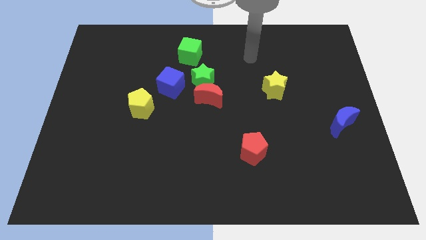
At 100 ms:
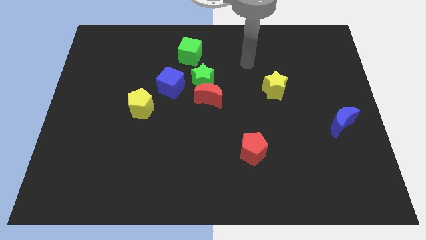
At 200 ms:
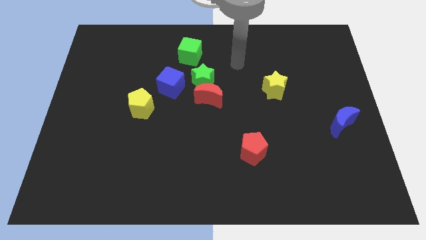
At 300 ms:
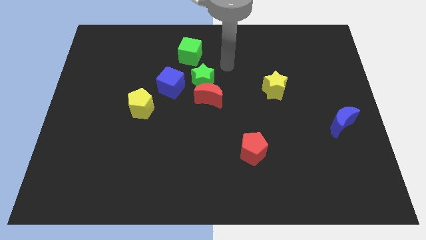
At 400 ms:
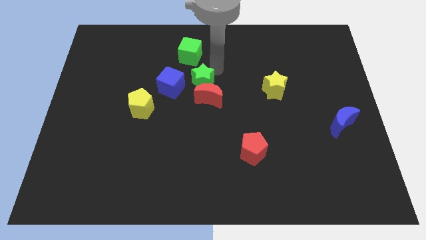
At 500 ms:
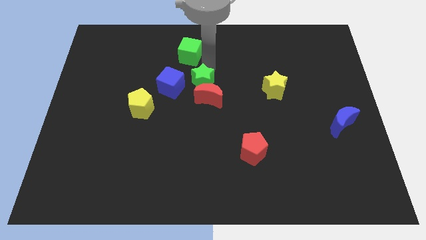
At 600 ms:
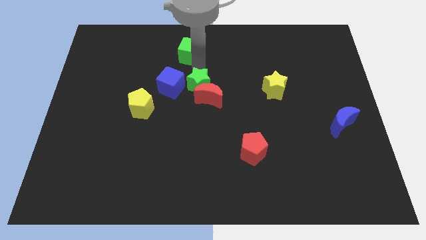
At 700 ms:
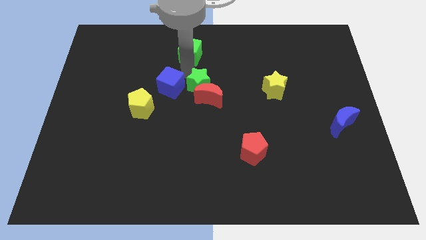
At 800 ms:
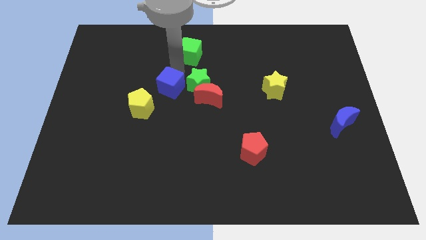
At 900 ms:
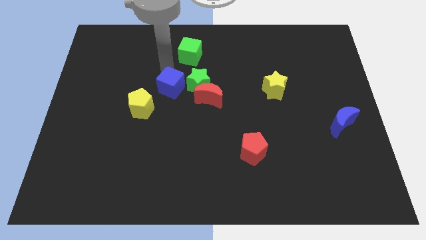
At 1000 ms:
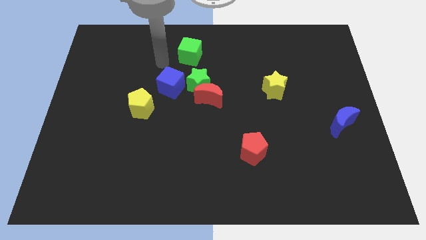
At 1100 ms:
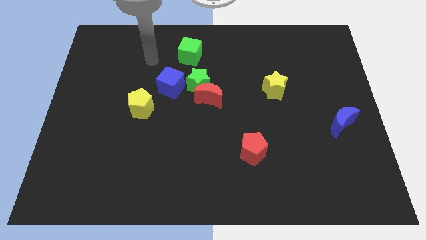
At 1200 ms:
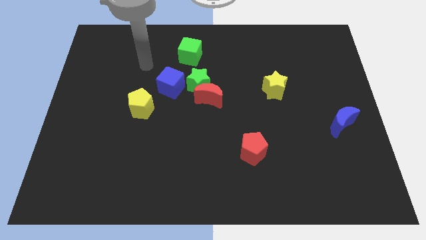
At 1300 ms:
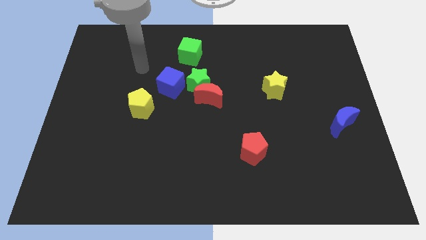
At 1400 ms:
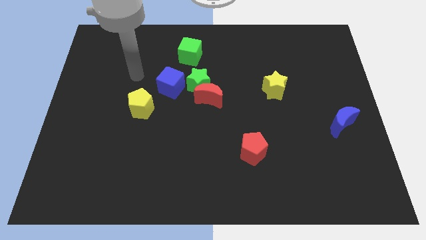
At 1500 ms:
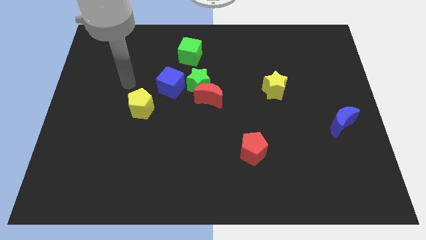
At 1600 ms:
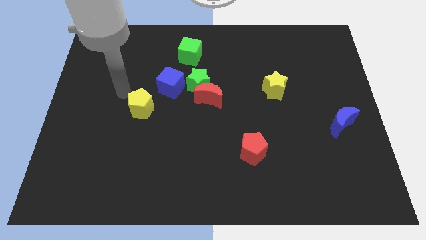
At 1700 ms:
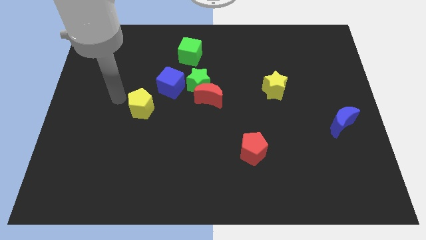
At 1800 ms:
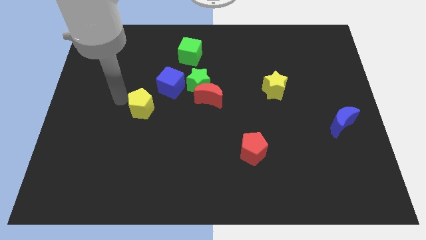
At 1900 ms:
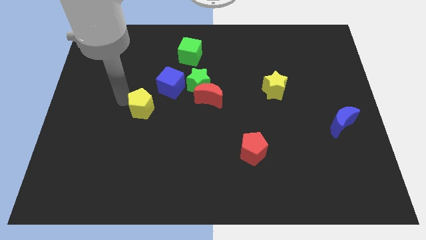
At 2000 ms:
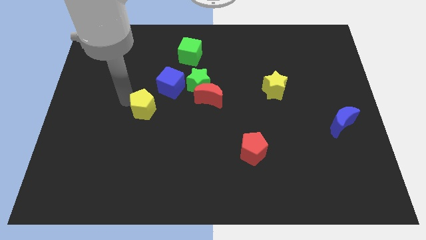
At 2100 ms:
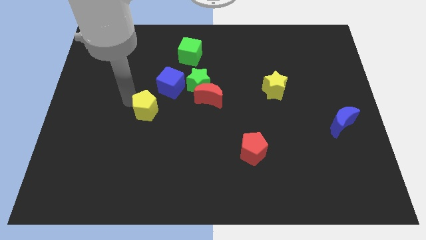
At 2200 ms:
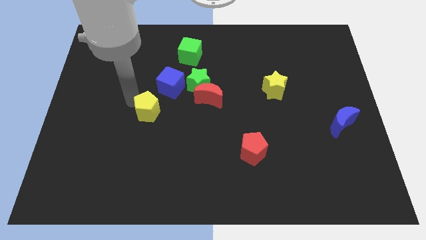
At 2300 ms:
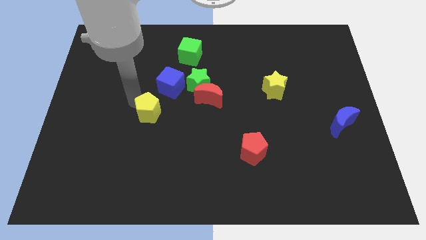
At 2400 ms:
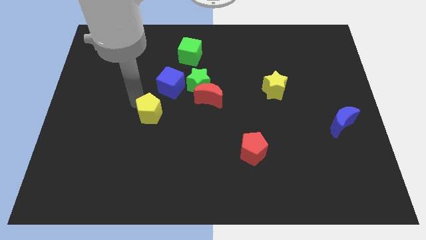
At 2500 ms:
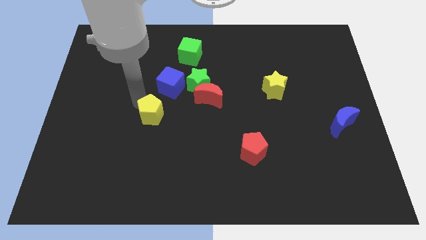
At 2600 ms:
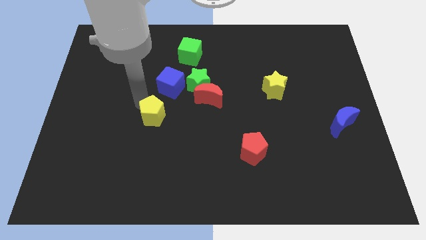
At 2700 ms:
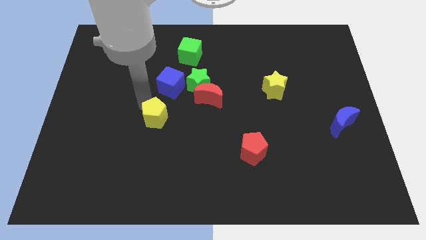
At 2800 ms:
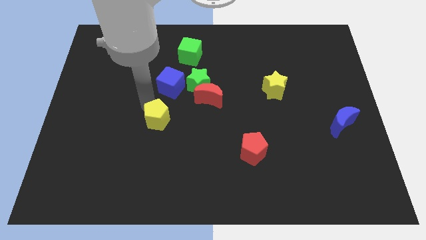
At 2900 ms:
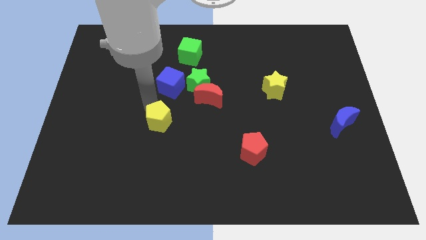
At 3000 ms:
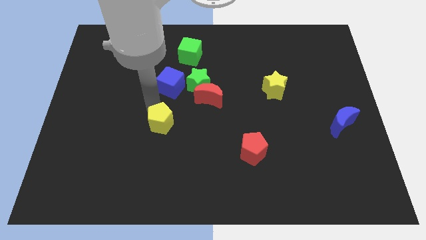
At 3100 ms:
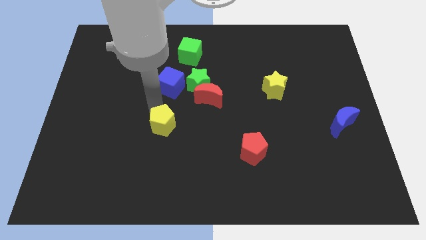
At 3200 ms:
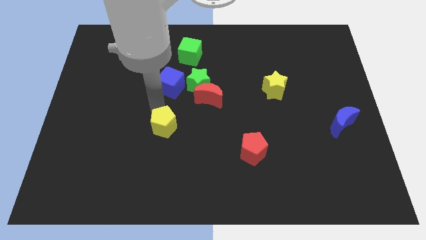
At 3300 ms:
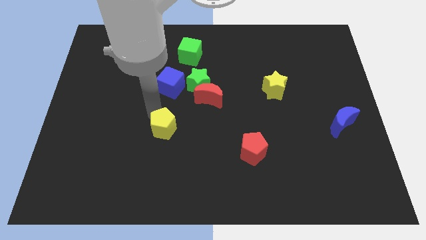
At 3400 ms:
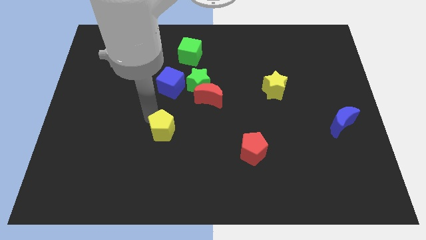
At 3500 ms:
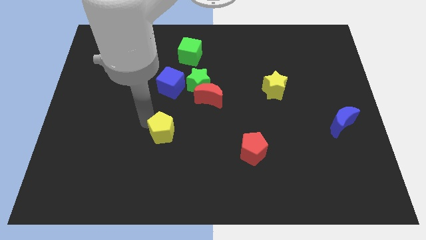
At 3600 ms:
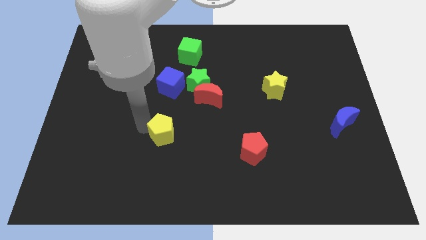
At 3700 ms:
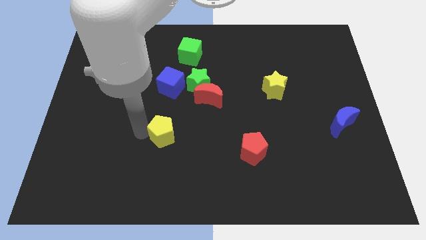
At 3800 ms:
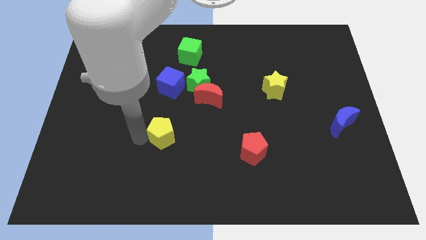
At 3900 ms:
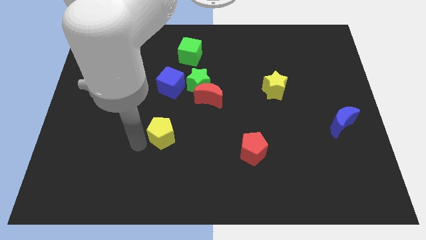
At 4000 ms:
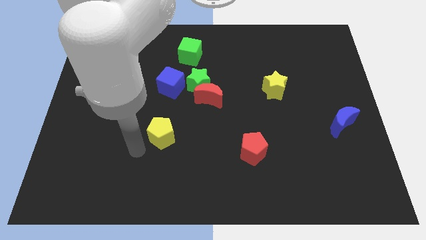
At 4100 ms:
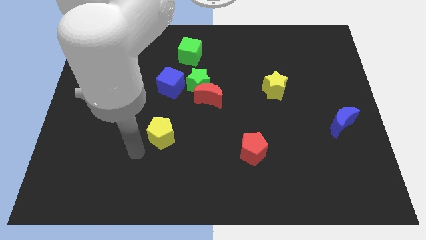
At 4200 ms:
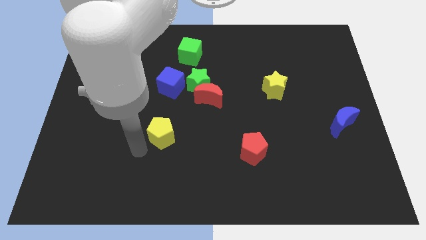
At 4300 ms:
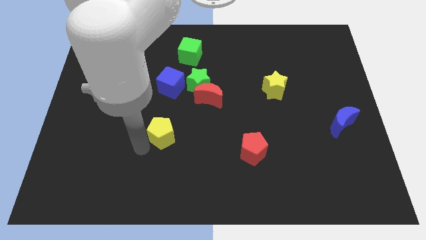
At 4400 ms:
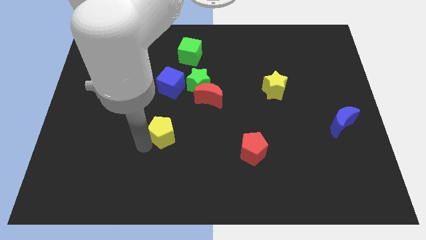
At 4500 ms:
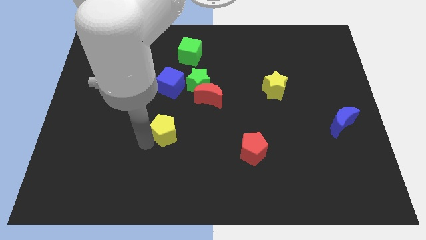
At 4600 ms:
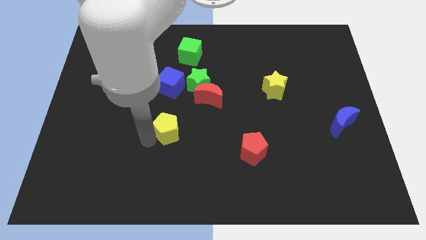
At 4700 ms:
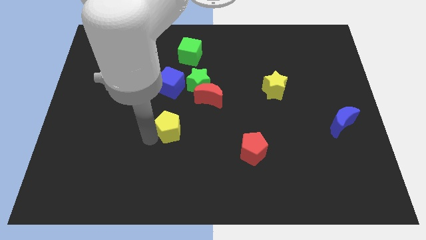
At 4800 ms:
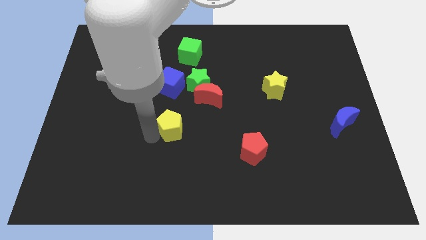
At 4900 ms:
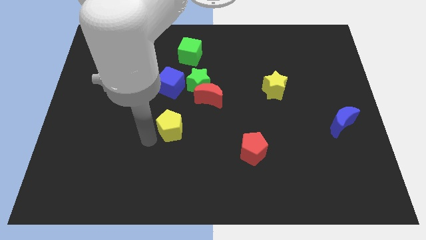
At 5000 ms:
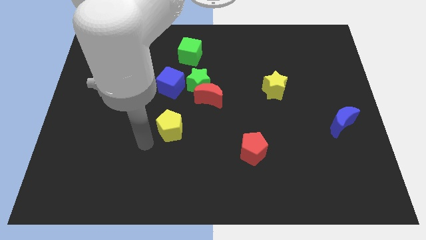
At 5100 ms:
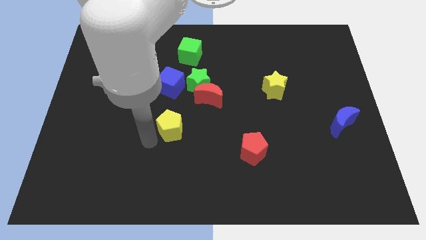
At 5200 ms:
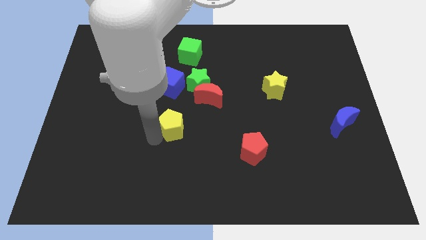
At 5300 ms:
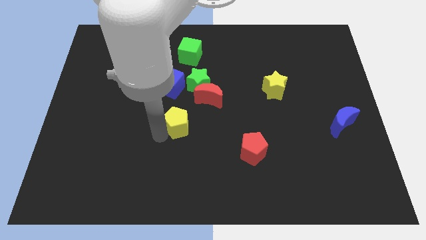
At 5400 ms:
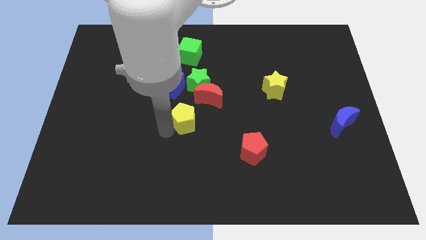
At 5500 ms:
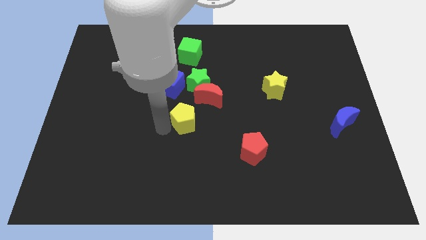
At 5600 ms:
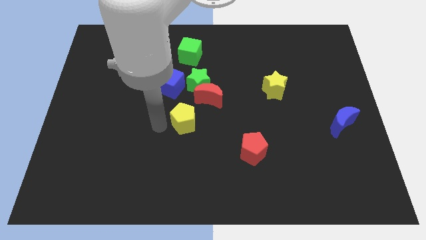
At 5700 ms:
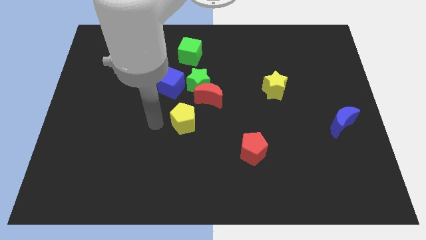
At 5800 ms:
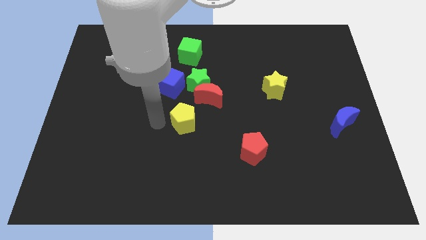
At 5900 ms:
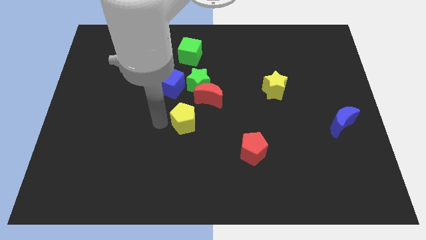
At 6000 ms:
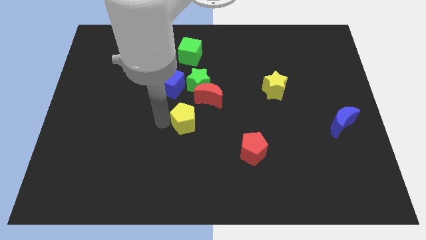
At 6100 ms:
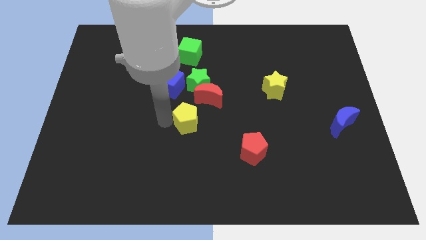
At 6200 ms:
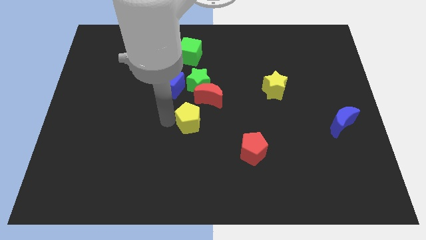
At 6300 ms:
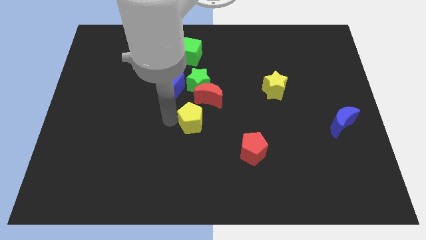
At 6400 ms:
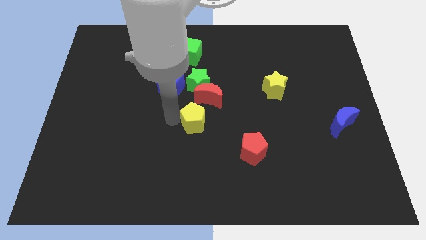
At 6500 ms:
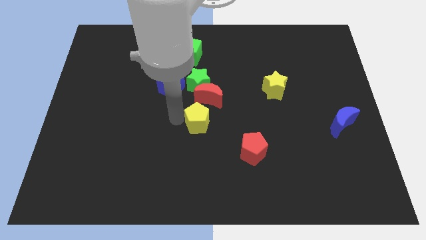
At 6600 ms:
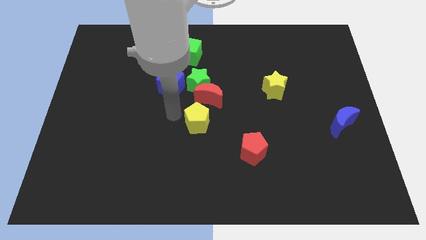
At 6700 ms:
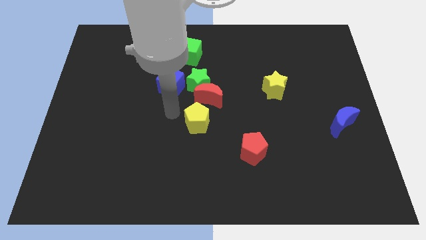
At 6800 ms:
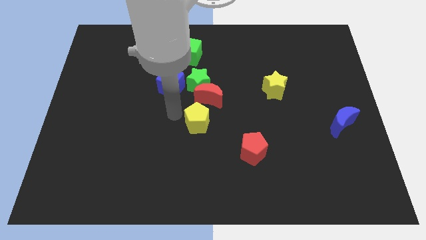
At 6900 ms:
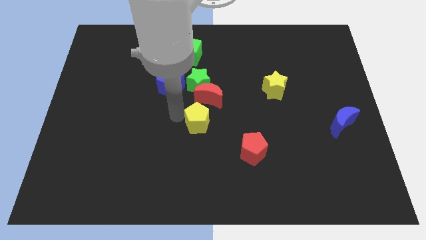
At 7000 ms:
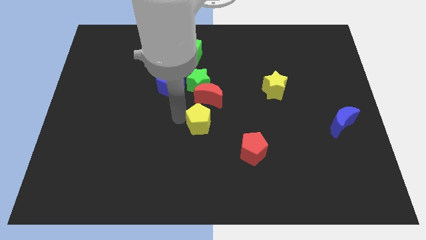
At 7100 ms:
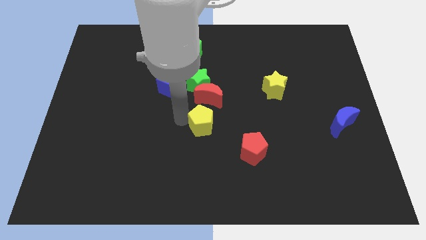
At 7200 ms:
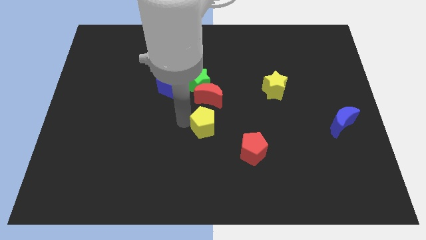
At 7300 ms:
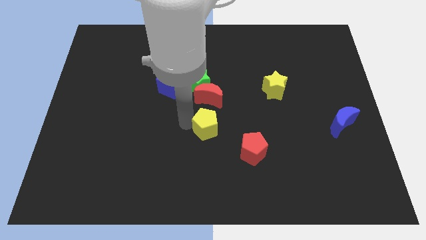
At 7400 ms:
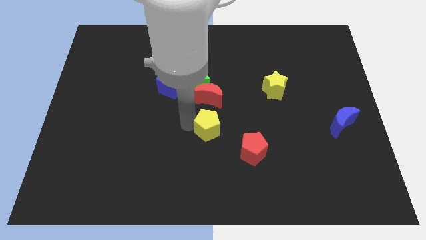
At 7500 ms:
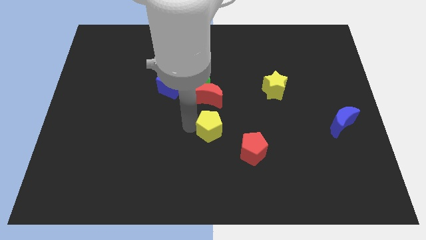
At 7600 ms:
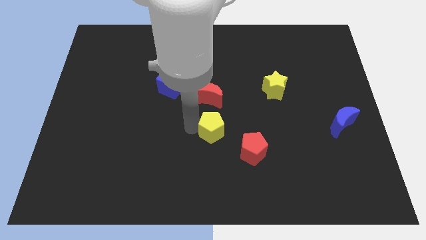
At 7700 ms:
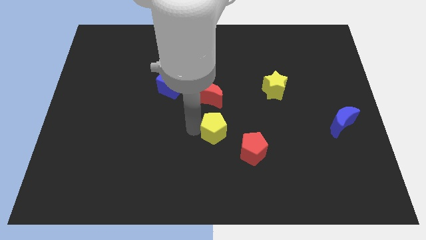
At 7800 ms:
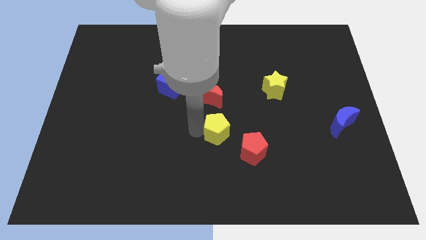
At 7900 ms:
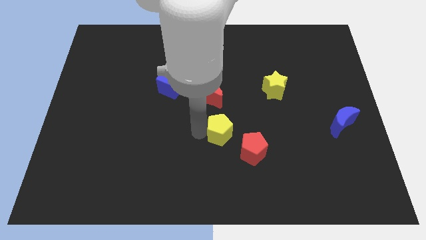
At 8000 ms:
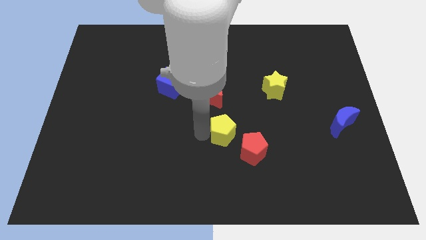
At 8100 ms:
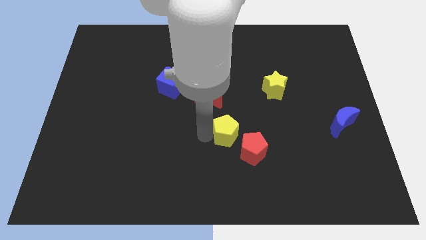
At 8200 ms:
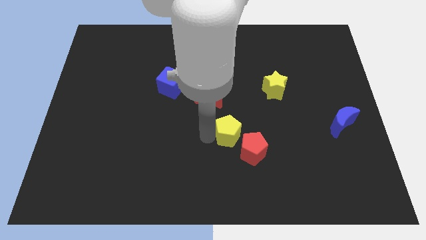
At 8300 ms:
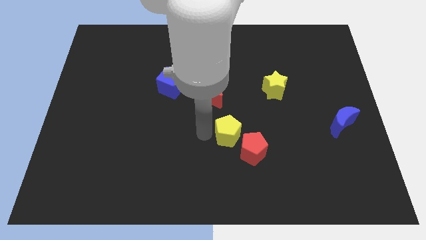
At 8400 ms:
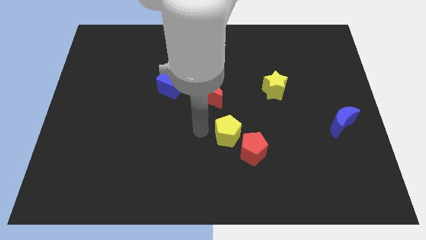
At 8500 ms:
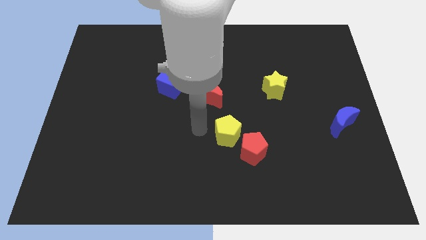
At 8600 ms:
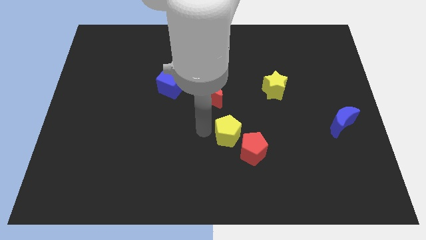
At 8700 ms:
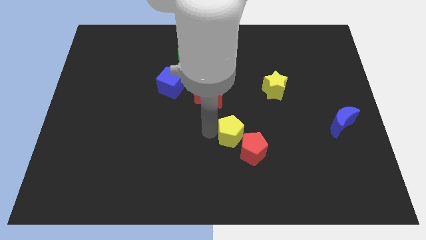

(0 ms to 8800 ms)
slide the yellow pentagon towards the red pentagon
